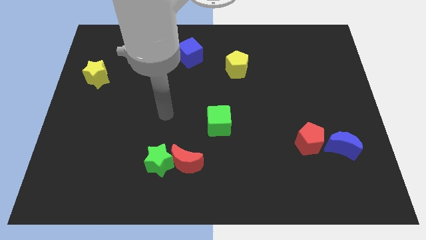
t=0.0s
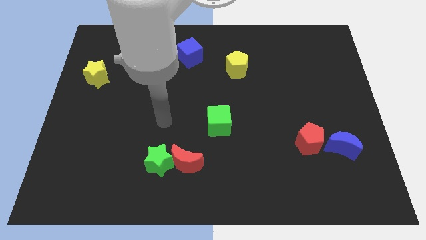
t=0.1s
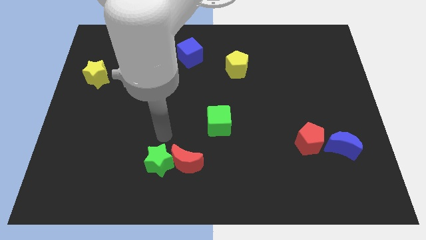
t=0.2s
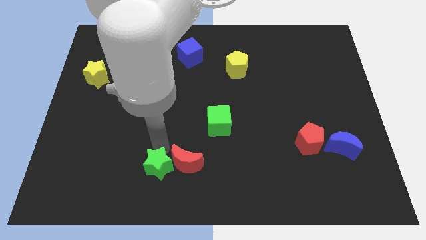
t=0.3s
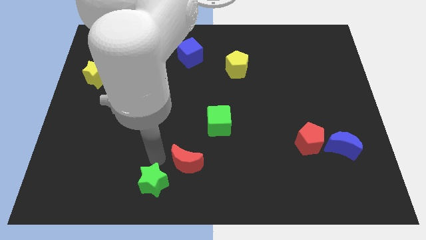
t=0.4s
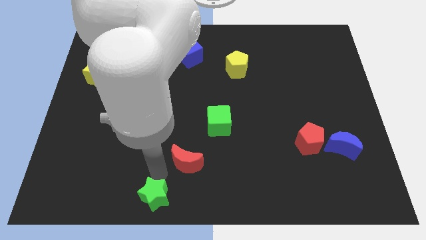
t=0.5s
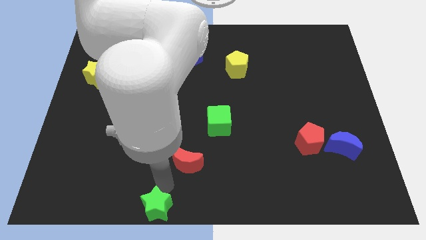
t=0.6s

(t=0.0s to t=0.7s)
separate the red moon from the green star

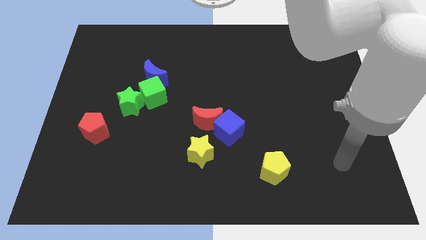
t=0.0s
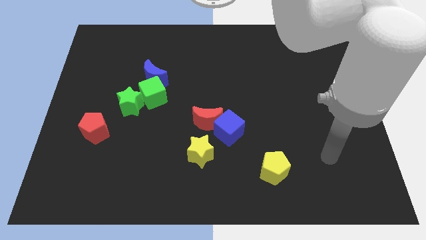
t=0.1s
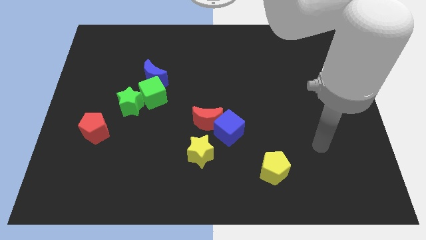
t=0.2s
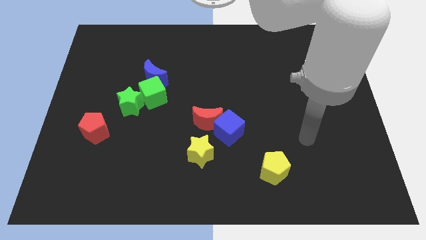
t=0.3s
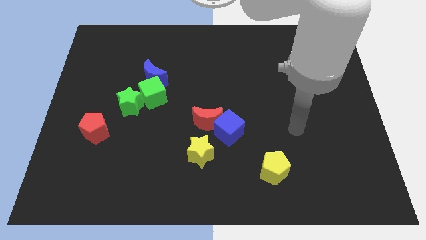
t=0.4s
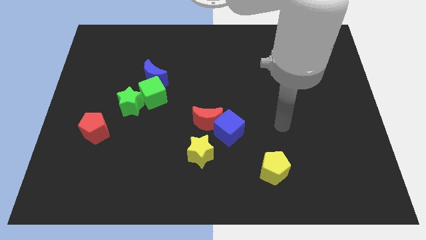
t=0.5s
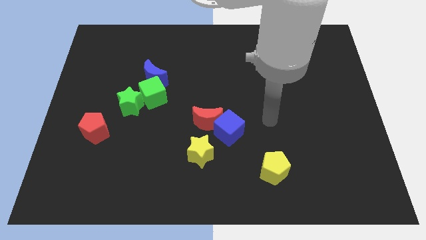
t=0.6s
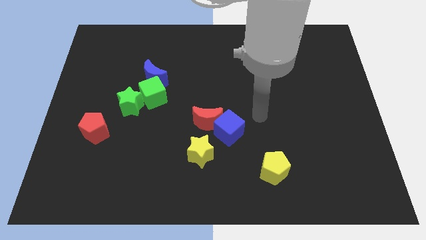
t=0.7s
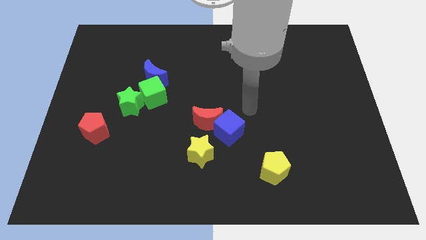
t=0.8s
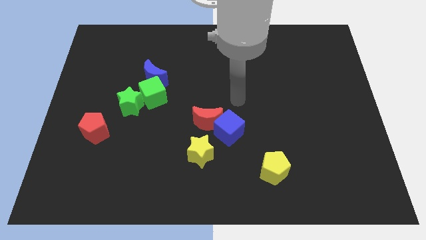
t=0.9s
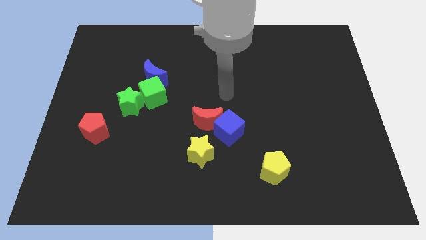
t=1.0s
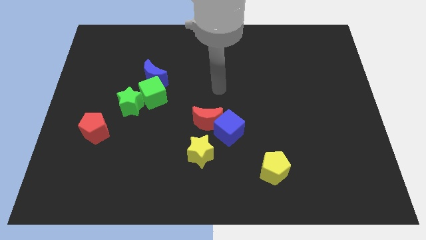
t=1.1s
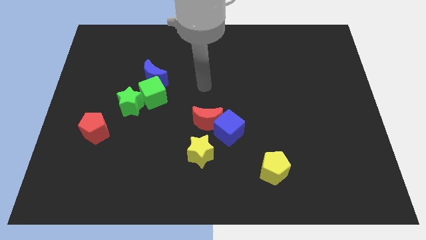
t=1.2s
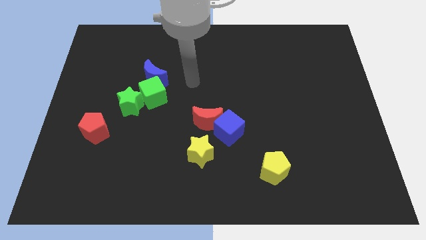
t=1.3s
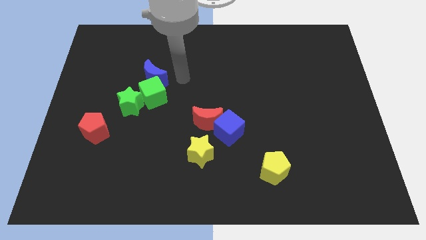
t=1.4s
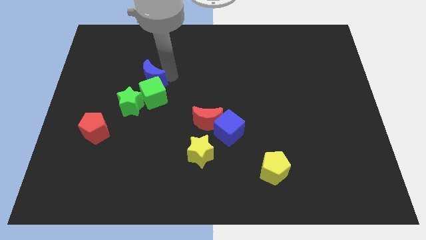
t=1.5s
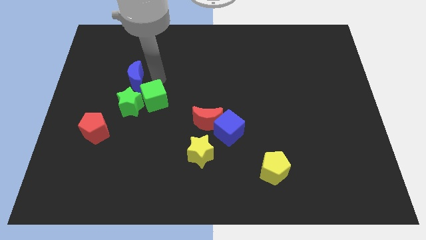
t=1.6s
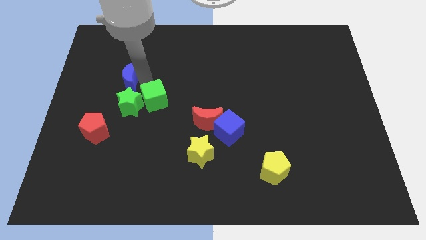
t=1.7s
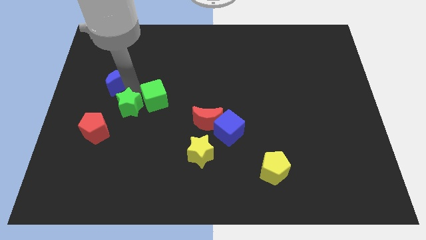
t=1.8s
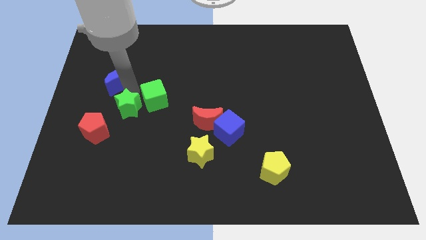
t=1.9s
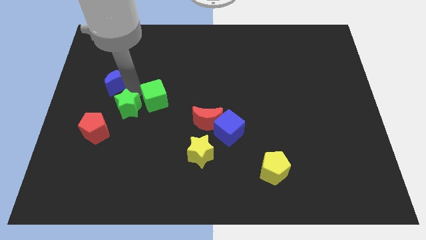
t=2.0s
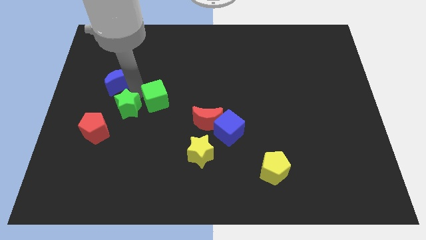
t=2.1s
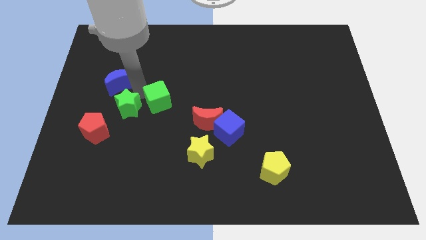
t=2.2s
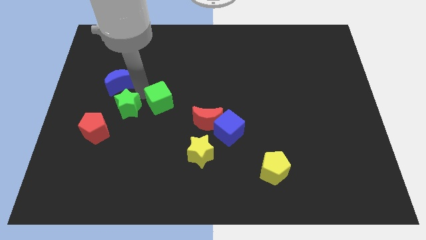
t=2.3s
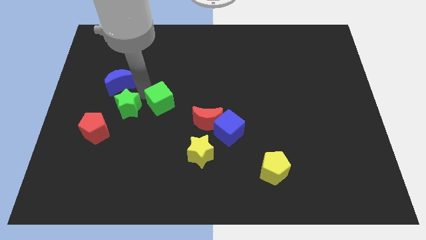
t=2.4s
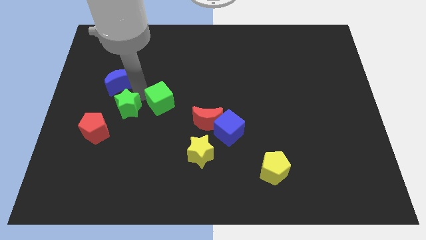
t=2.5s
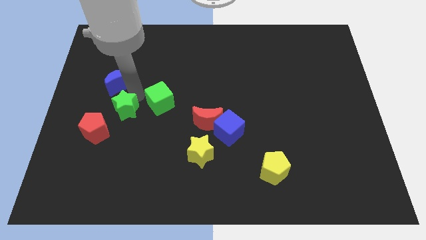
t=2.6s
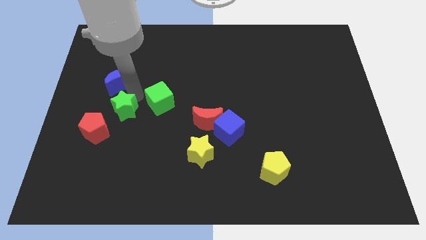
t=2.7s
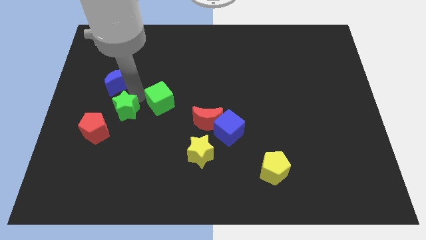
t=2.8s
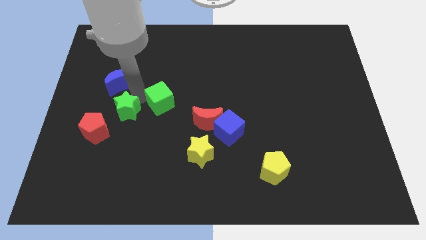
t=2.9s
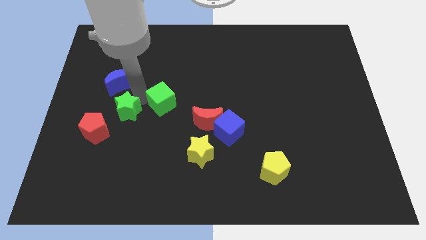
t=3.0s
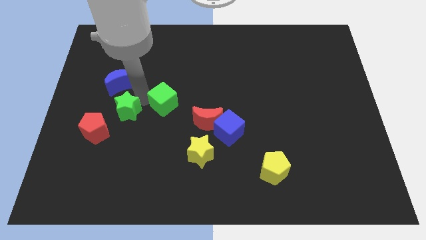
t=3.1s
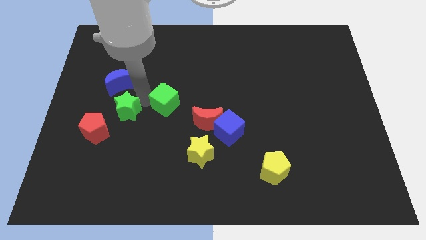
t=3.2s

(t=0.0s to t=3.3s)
separate the green cube from the blue moon and green star

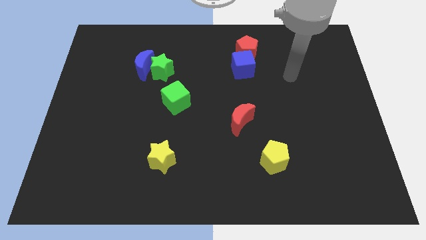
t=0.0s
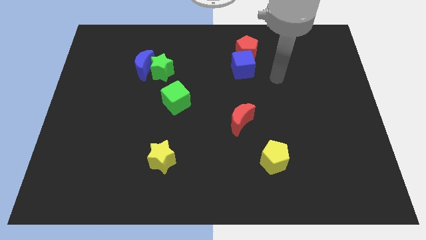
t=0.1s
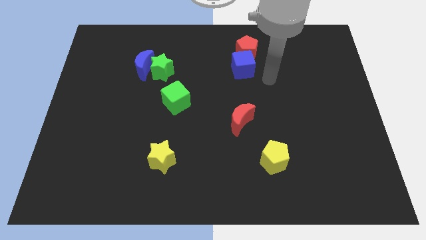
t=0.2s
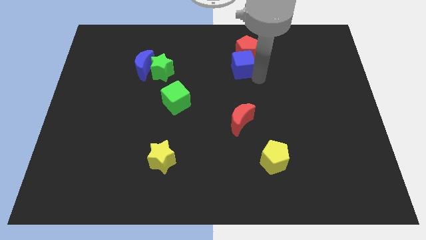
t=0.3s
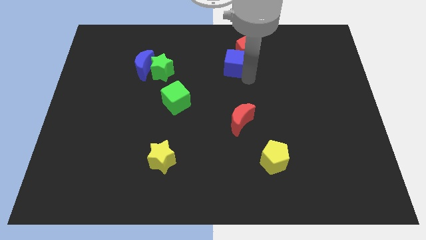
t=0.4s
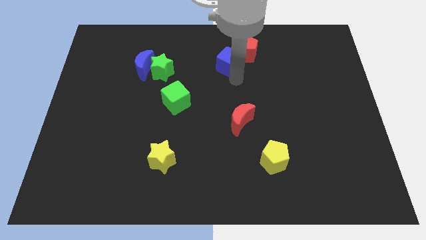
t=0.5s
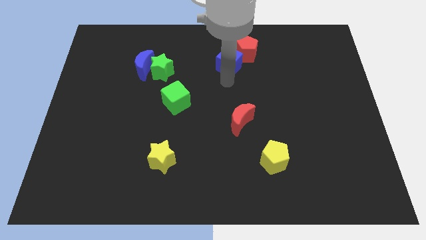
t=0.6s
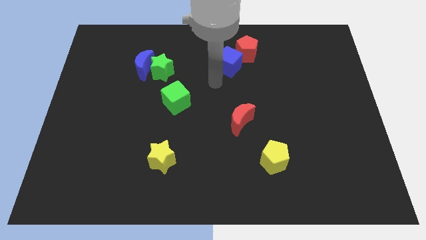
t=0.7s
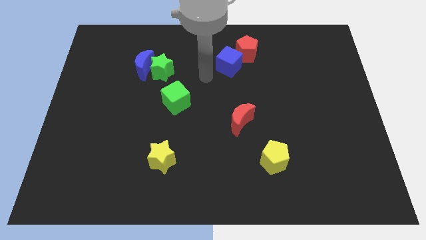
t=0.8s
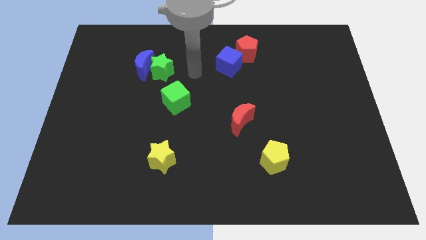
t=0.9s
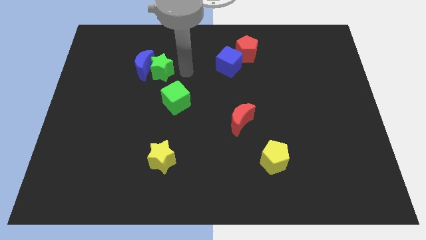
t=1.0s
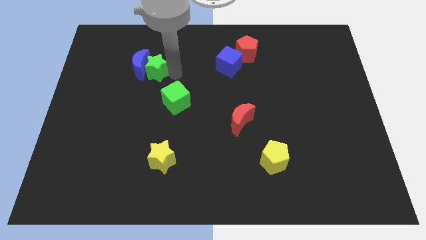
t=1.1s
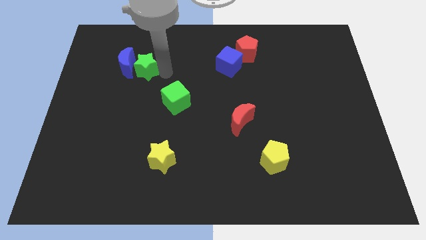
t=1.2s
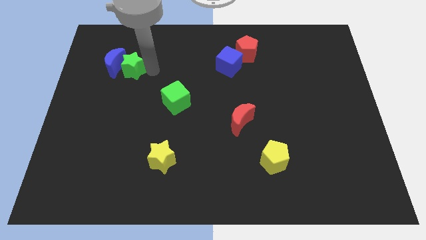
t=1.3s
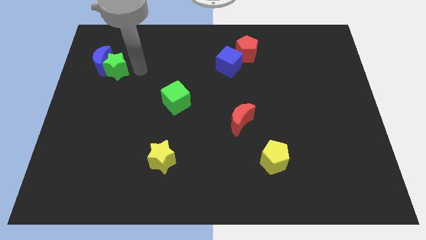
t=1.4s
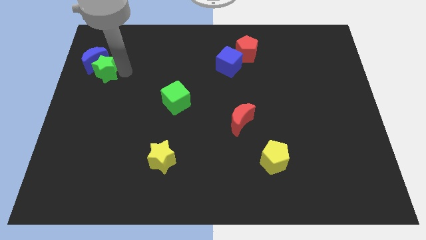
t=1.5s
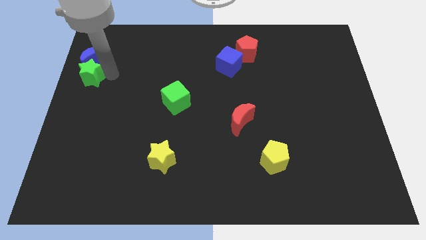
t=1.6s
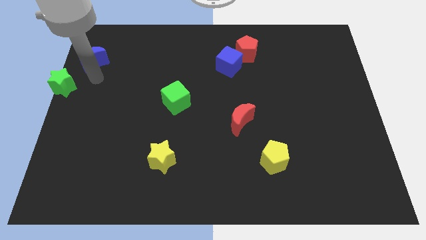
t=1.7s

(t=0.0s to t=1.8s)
separate the blue moon from the green star

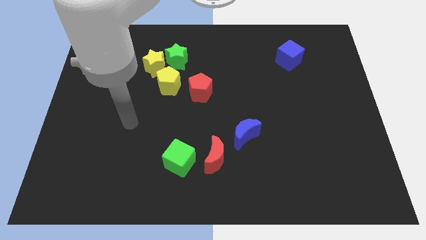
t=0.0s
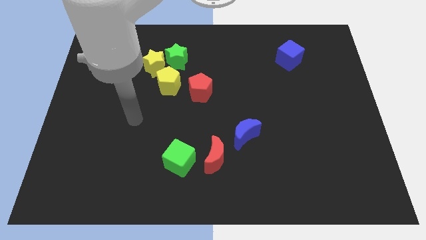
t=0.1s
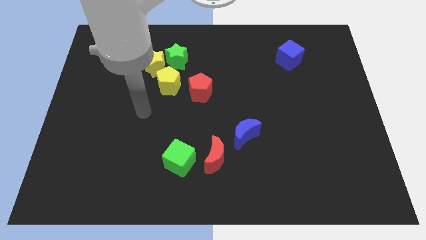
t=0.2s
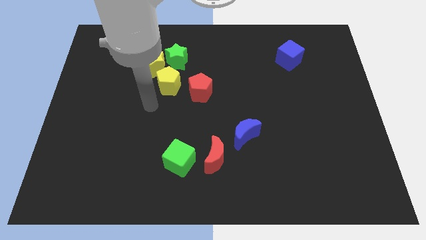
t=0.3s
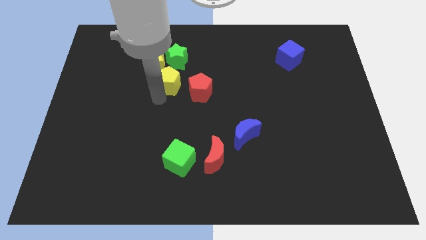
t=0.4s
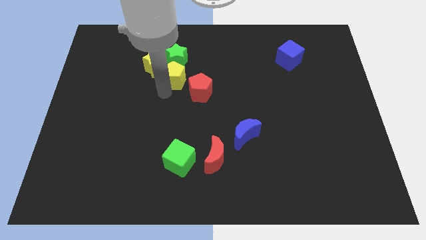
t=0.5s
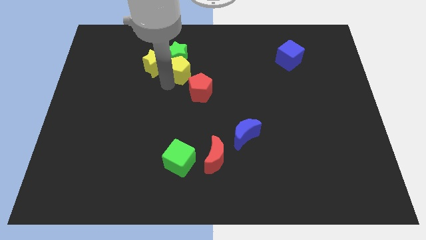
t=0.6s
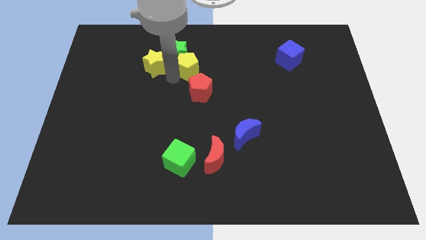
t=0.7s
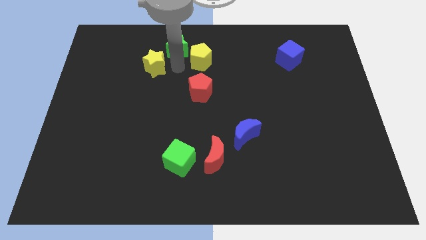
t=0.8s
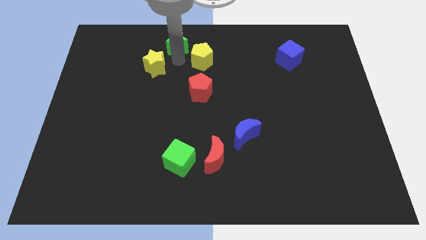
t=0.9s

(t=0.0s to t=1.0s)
pull the yellow star apart from the green star and yellow pentagon

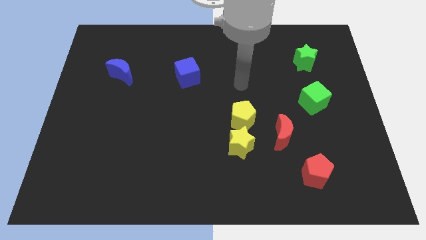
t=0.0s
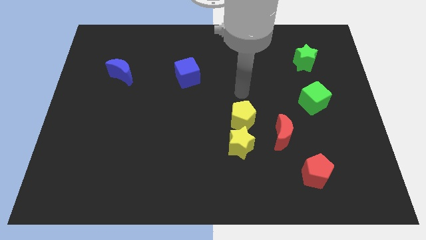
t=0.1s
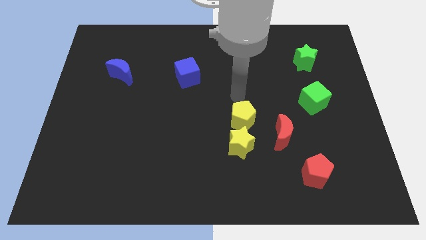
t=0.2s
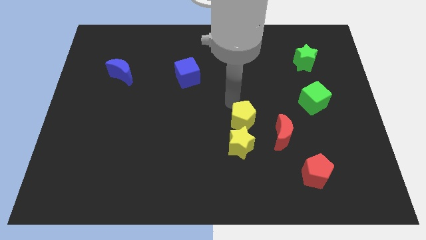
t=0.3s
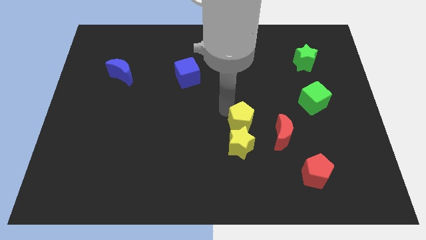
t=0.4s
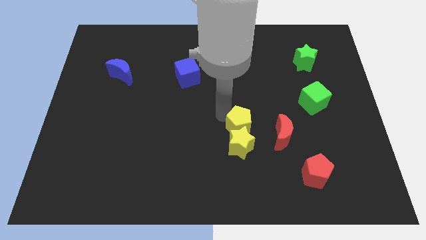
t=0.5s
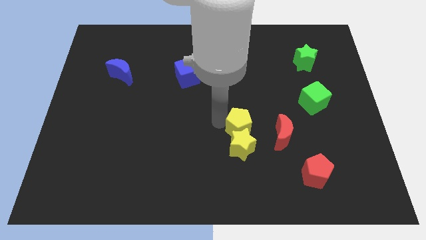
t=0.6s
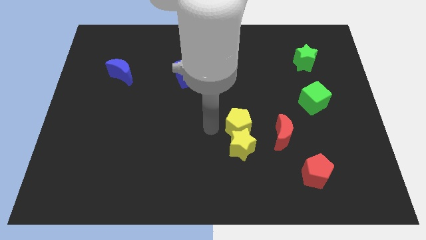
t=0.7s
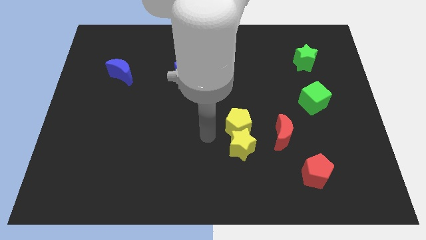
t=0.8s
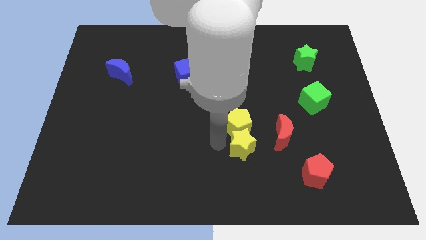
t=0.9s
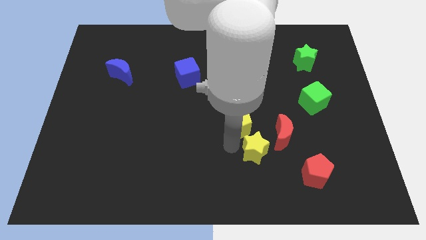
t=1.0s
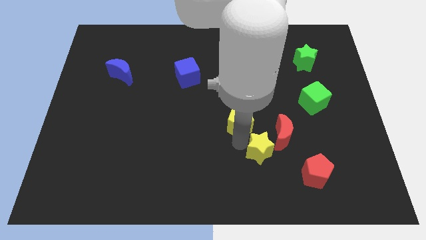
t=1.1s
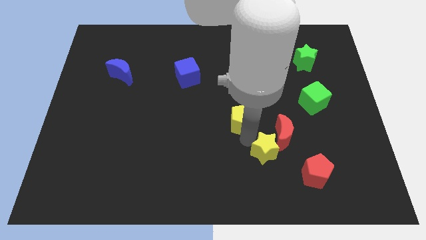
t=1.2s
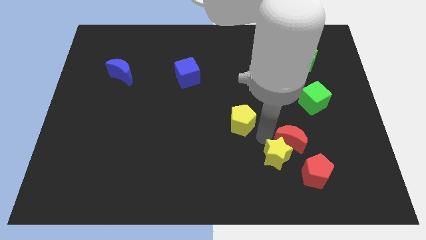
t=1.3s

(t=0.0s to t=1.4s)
separate the yellow pentagon from the yellow star and red moon

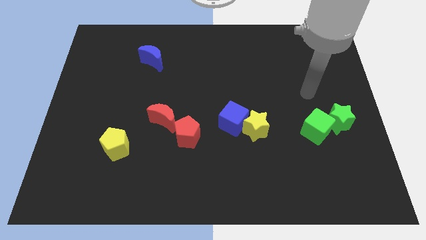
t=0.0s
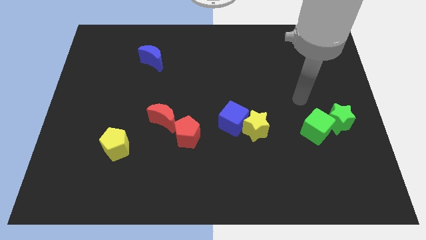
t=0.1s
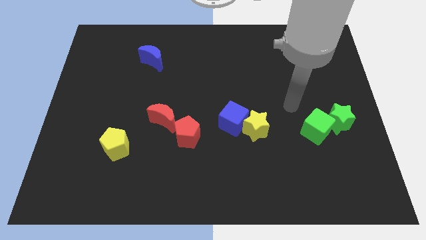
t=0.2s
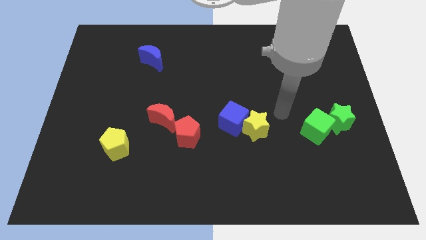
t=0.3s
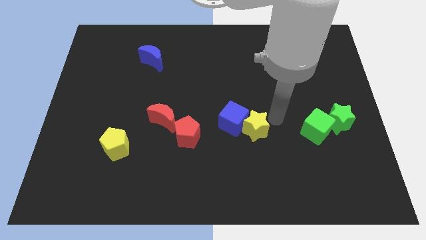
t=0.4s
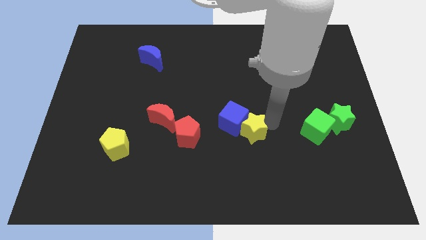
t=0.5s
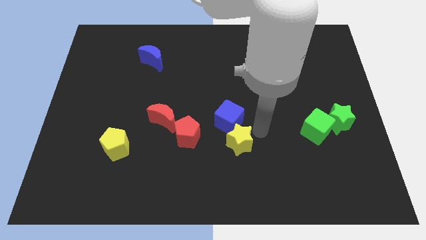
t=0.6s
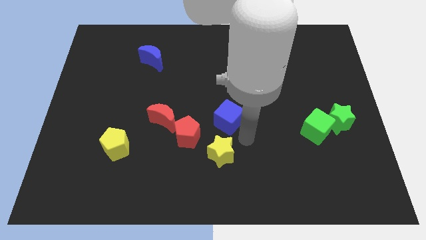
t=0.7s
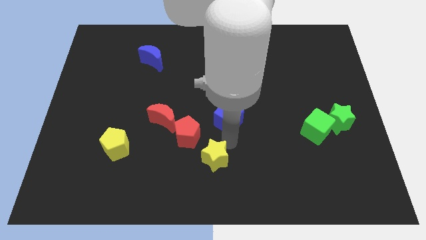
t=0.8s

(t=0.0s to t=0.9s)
separate the blue cube from the yellow star

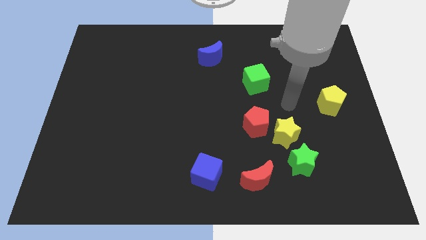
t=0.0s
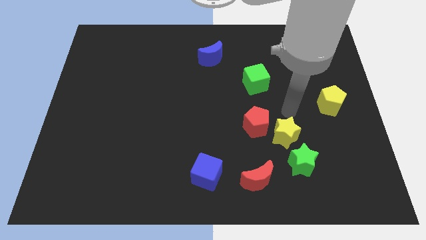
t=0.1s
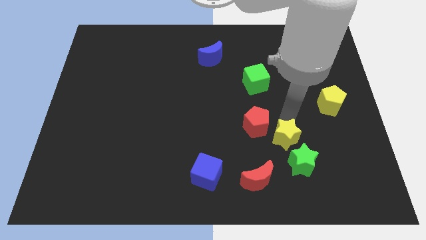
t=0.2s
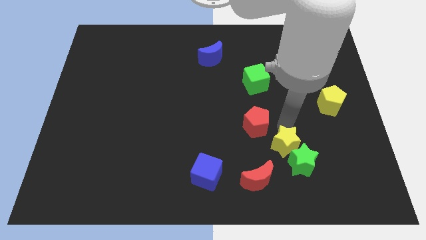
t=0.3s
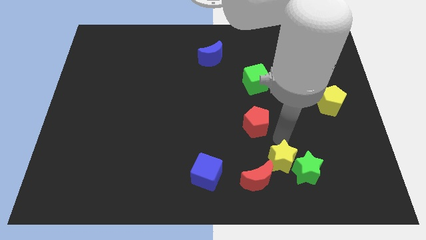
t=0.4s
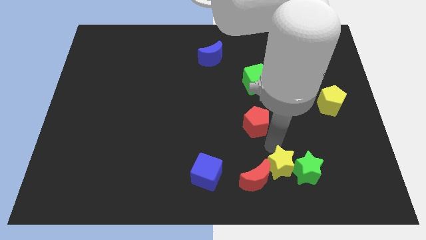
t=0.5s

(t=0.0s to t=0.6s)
pull the red pentagon apart from the yellow star
